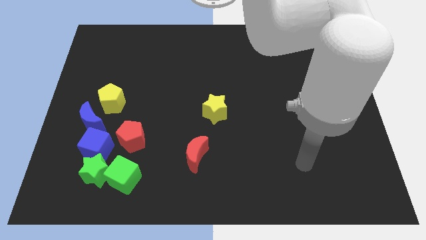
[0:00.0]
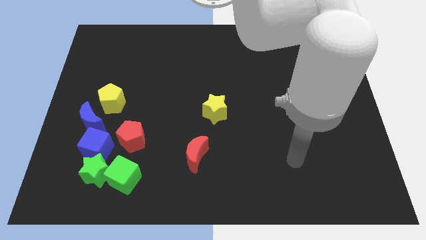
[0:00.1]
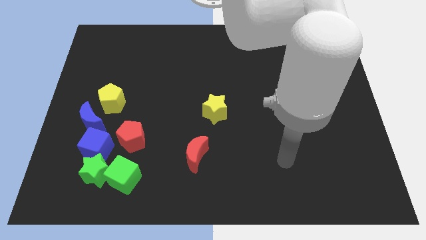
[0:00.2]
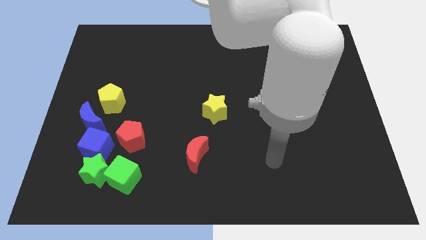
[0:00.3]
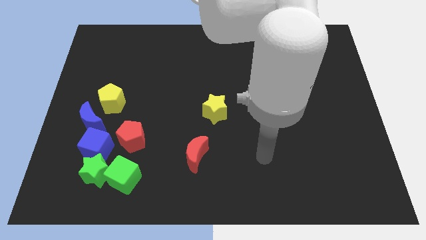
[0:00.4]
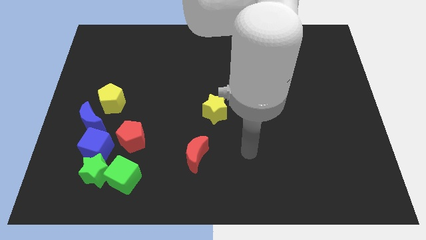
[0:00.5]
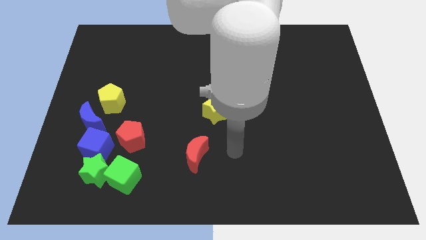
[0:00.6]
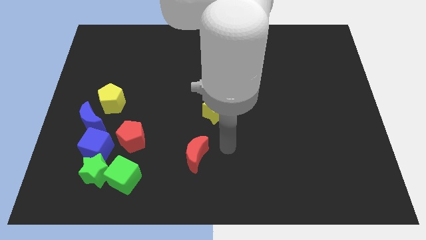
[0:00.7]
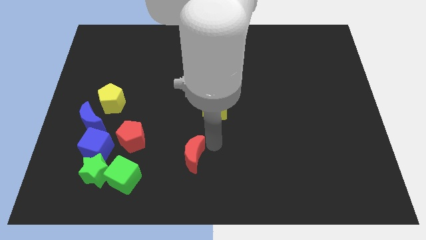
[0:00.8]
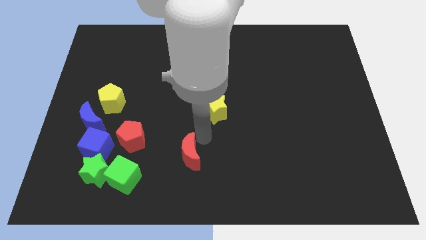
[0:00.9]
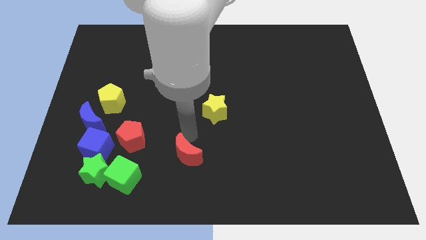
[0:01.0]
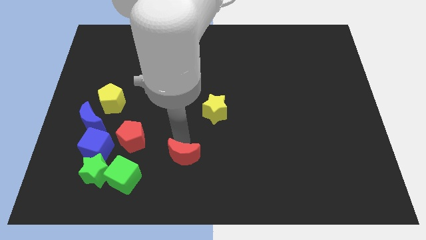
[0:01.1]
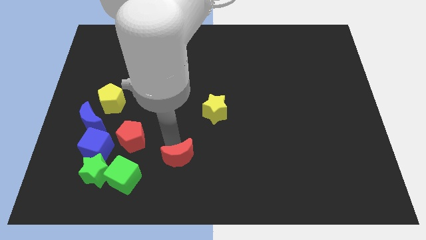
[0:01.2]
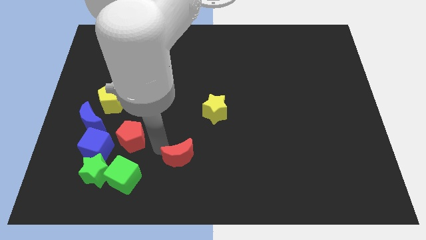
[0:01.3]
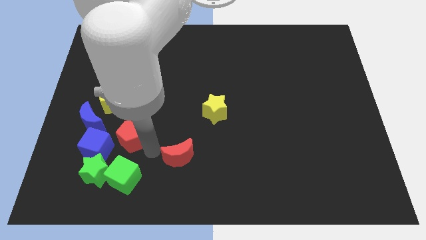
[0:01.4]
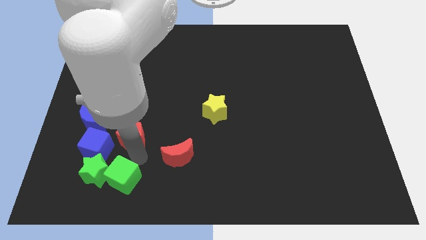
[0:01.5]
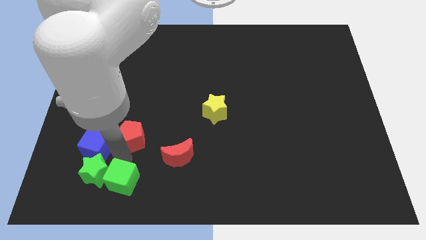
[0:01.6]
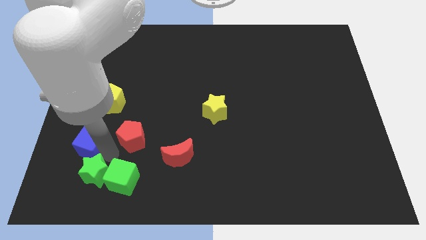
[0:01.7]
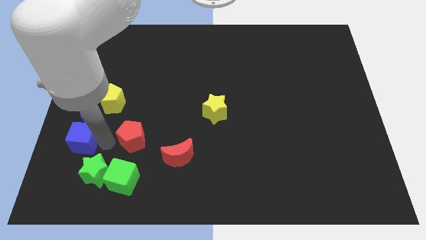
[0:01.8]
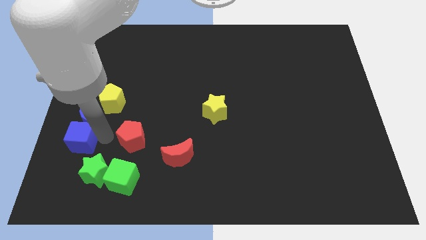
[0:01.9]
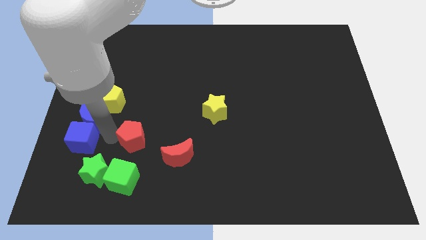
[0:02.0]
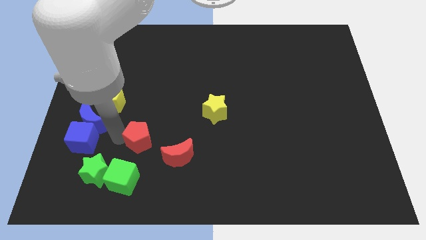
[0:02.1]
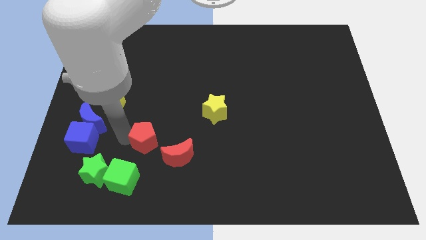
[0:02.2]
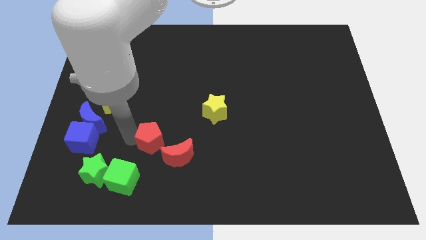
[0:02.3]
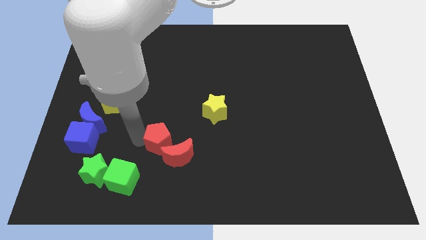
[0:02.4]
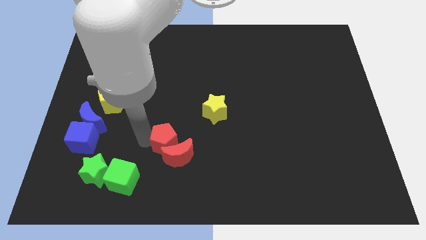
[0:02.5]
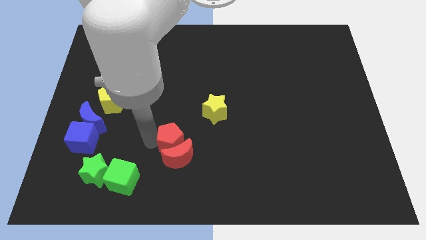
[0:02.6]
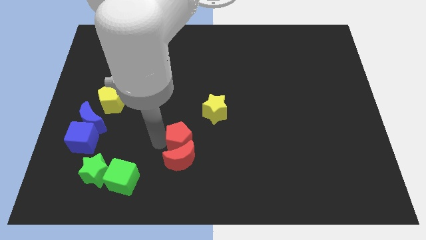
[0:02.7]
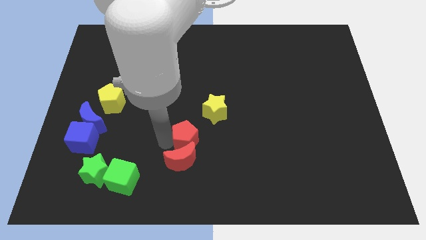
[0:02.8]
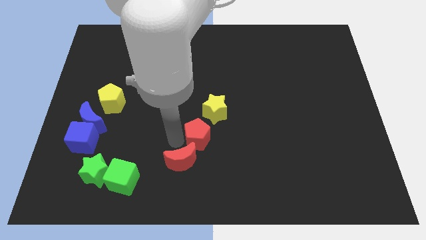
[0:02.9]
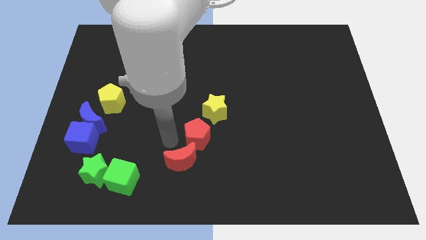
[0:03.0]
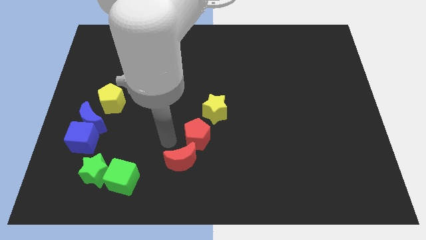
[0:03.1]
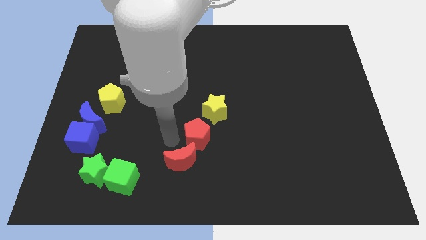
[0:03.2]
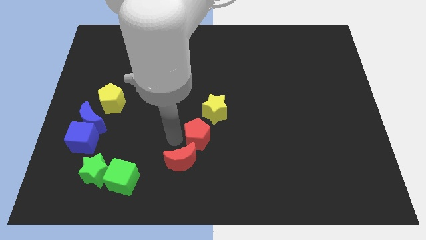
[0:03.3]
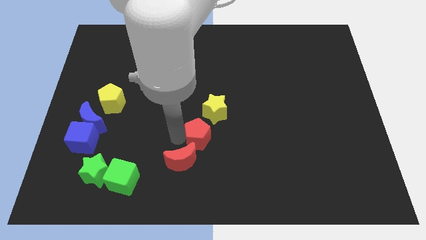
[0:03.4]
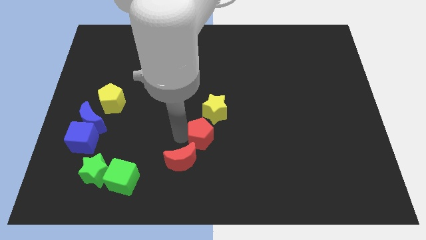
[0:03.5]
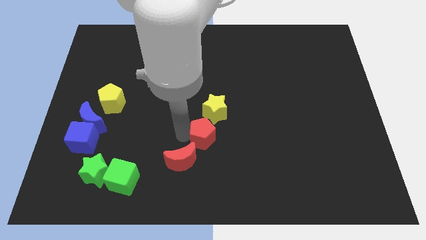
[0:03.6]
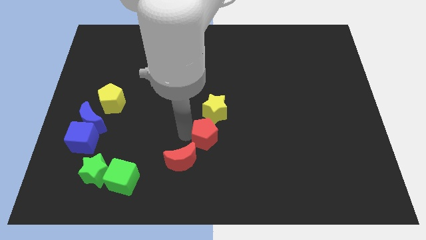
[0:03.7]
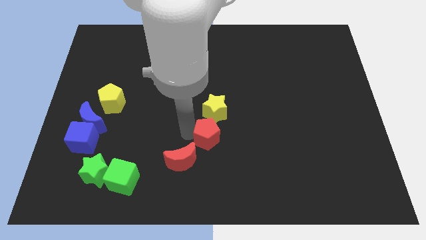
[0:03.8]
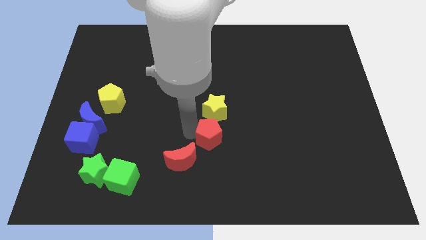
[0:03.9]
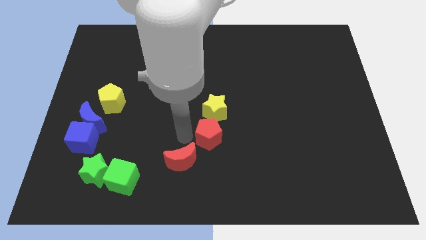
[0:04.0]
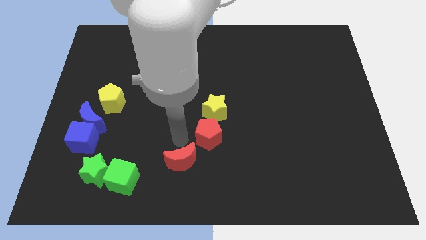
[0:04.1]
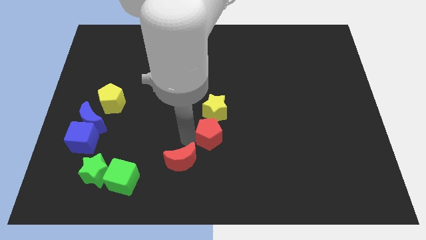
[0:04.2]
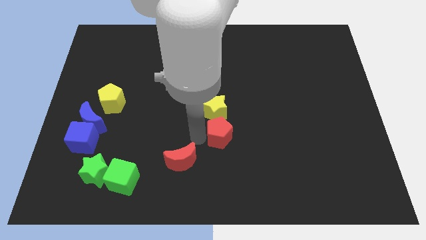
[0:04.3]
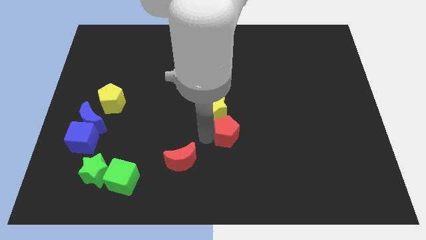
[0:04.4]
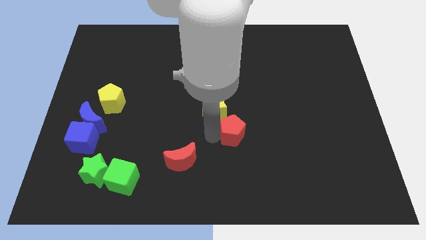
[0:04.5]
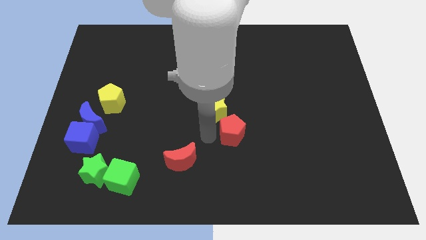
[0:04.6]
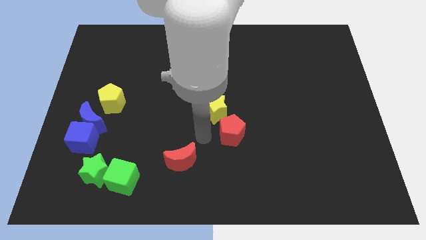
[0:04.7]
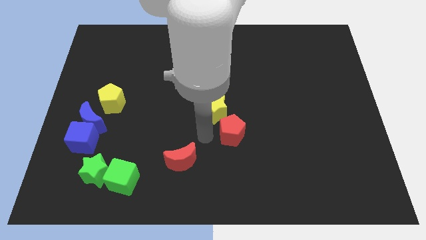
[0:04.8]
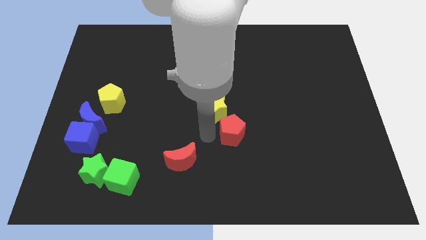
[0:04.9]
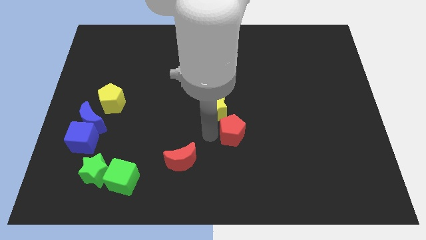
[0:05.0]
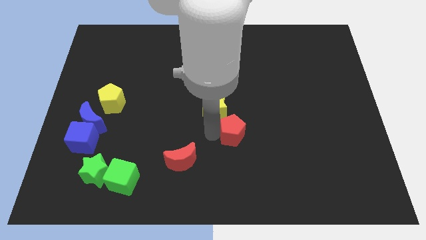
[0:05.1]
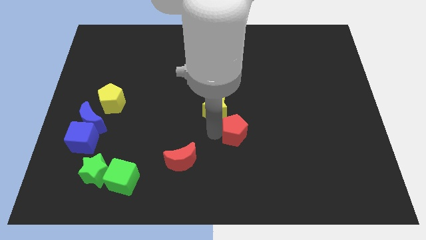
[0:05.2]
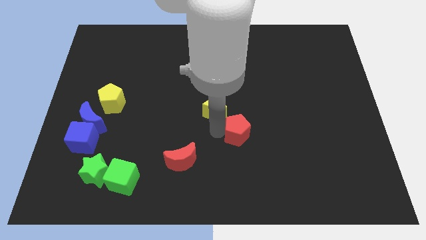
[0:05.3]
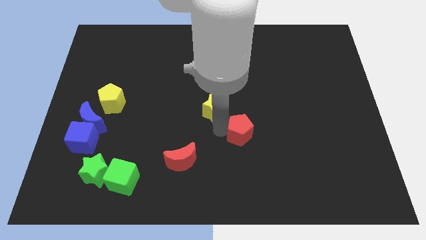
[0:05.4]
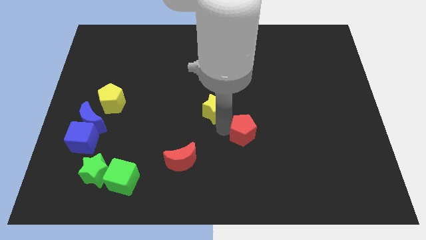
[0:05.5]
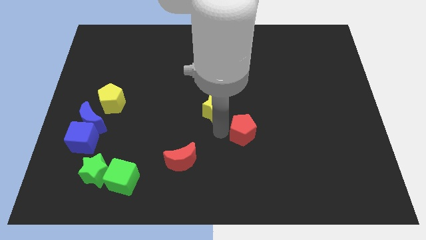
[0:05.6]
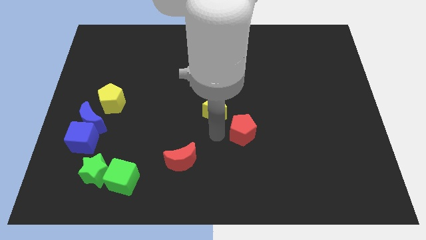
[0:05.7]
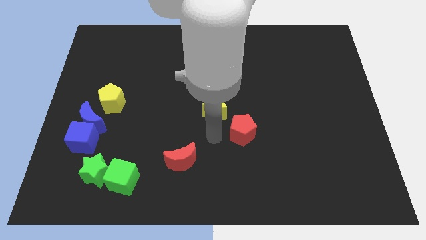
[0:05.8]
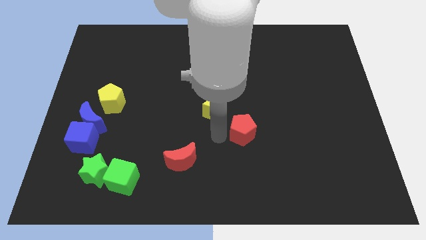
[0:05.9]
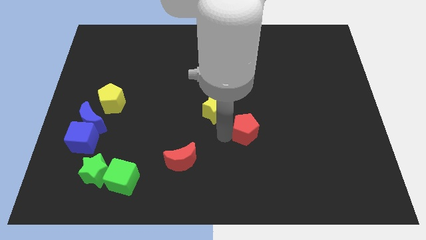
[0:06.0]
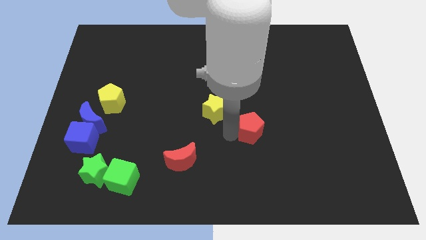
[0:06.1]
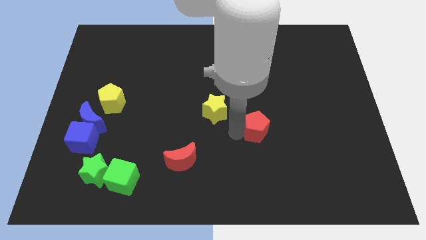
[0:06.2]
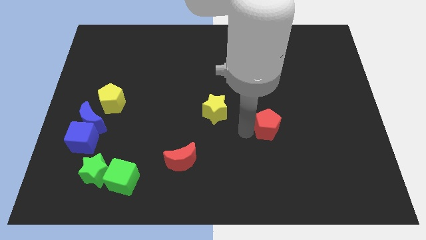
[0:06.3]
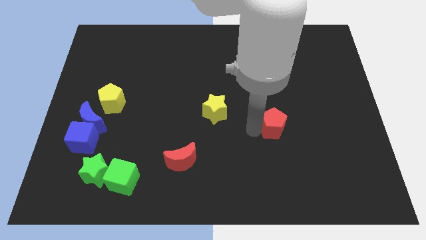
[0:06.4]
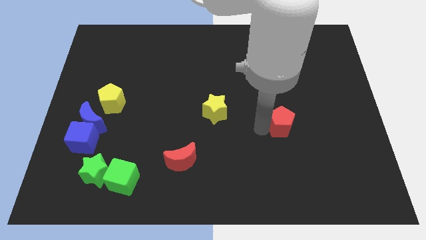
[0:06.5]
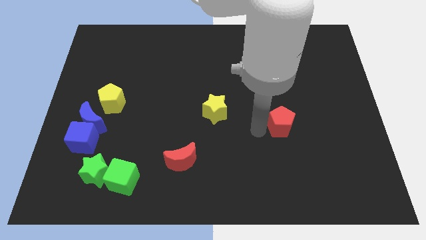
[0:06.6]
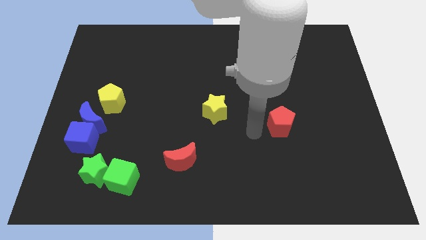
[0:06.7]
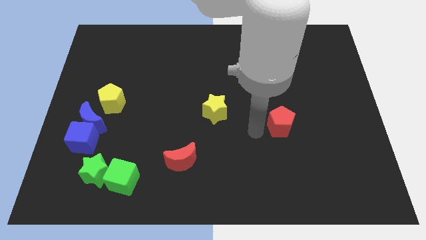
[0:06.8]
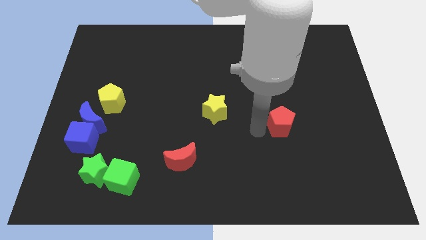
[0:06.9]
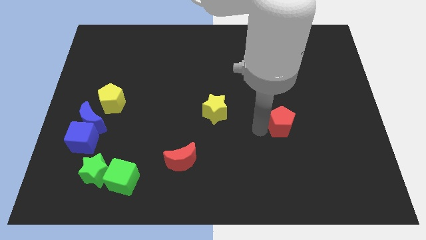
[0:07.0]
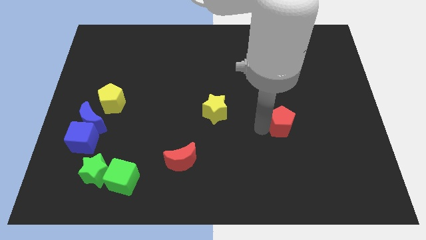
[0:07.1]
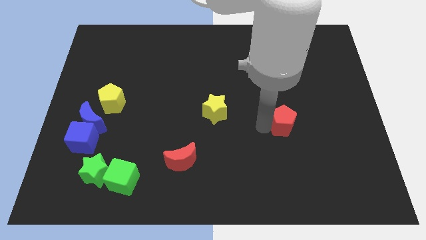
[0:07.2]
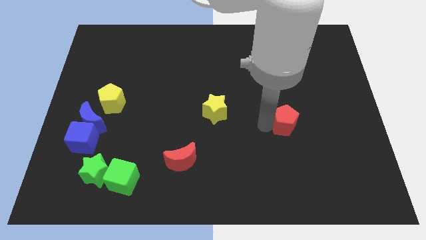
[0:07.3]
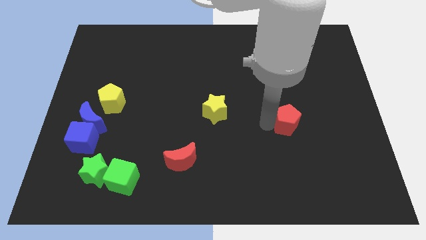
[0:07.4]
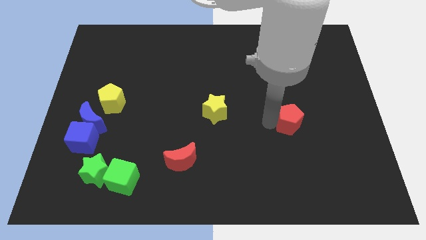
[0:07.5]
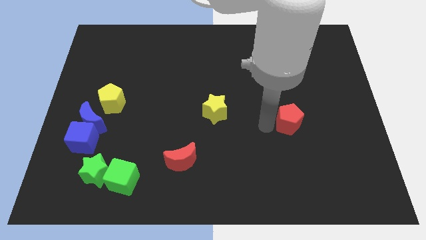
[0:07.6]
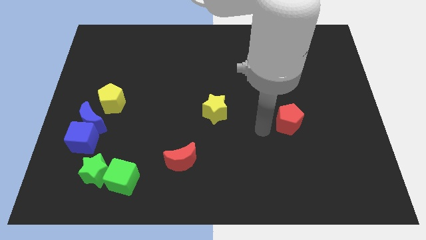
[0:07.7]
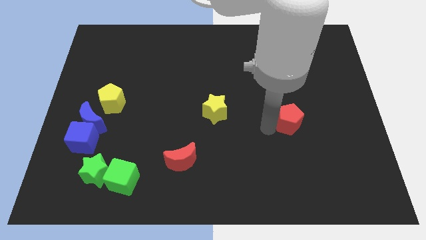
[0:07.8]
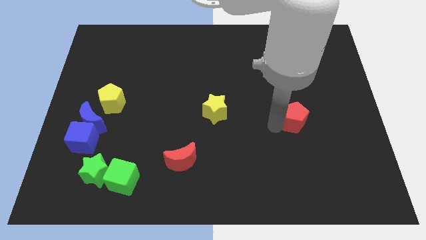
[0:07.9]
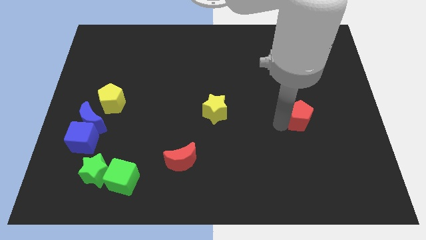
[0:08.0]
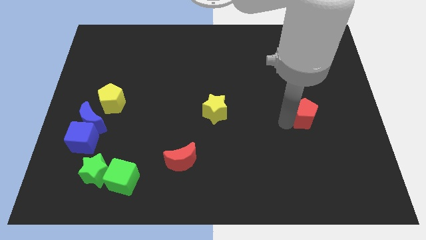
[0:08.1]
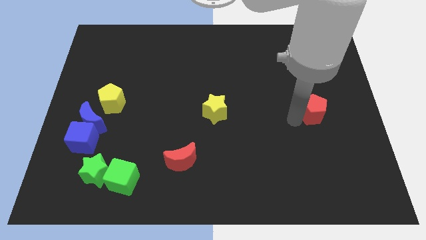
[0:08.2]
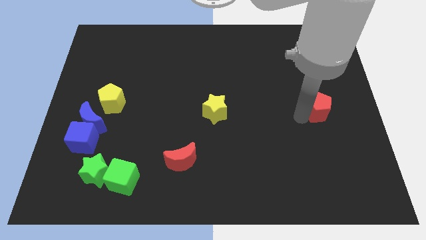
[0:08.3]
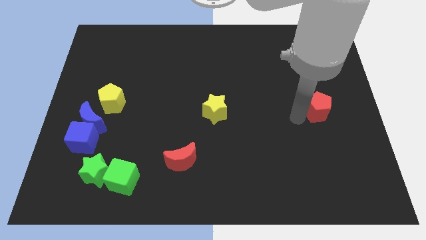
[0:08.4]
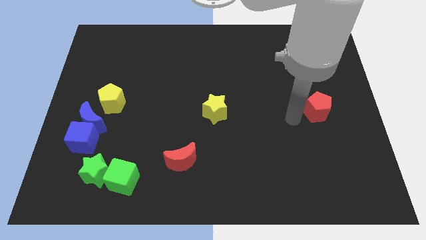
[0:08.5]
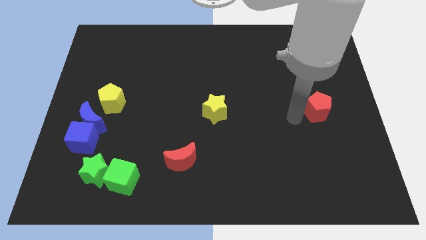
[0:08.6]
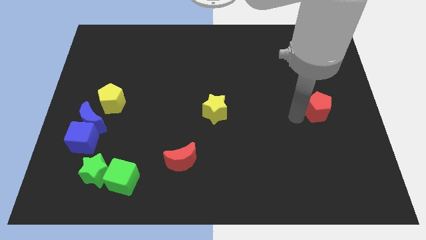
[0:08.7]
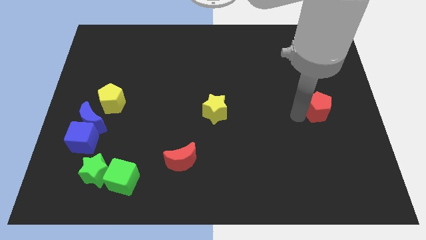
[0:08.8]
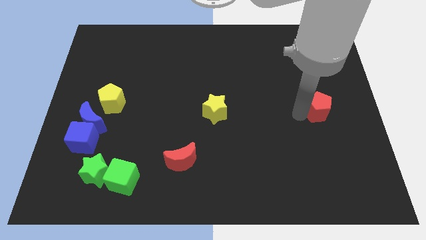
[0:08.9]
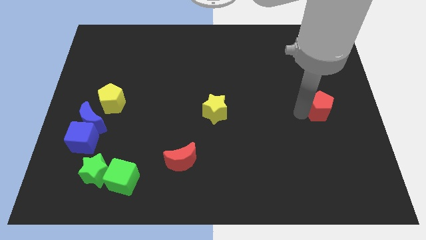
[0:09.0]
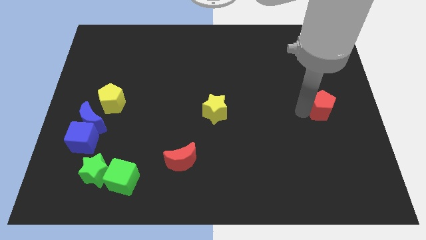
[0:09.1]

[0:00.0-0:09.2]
put the red pentagon to the right side of the board
